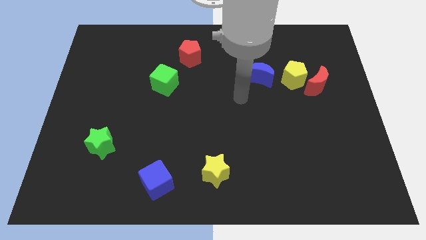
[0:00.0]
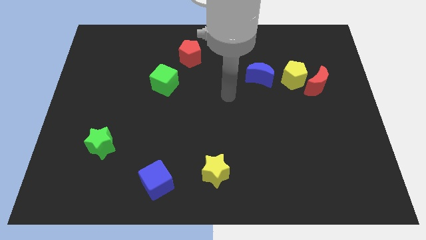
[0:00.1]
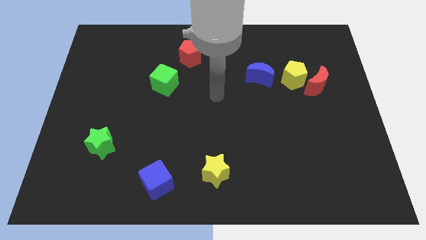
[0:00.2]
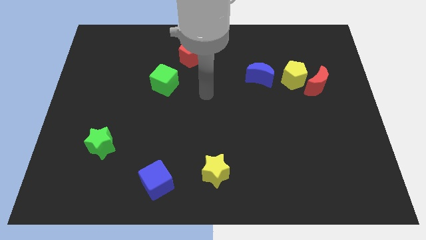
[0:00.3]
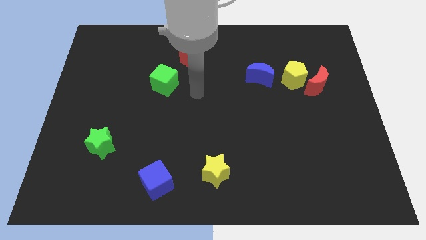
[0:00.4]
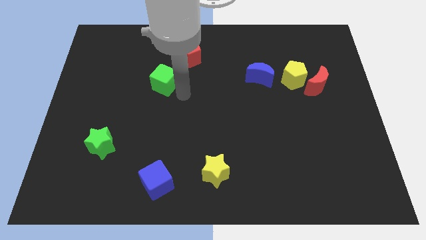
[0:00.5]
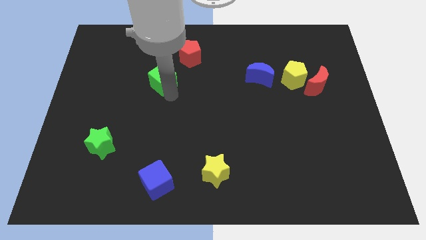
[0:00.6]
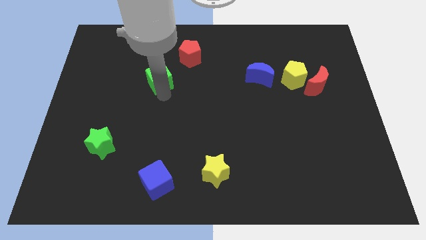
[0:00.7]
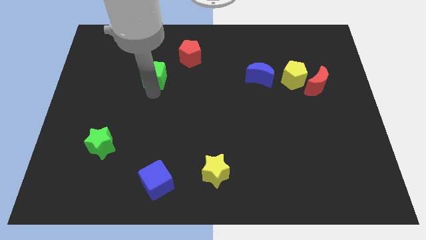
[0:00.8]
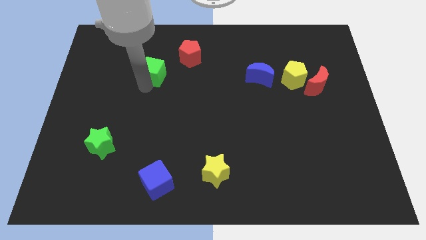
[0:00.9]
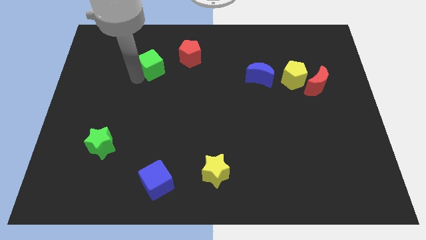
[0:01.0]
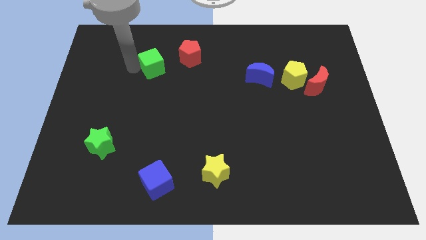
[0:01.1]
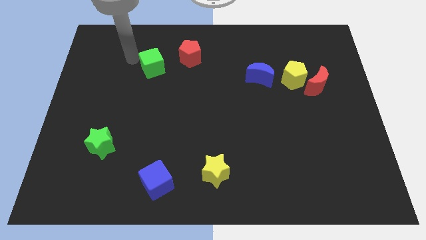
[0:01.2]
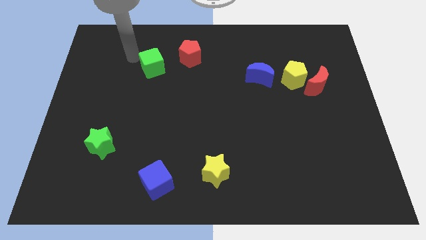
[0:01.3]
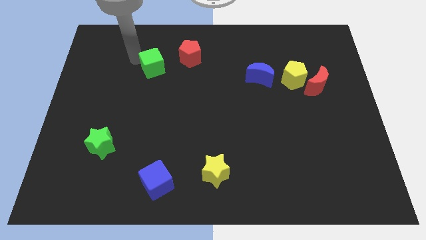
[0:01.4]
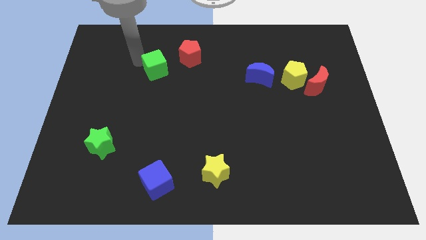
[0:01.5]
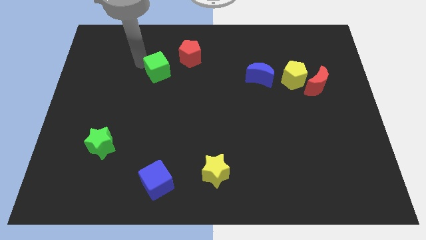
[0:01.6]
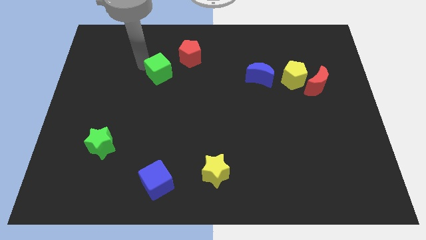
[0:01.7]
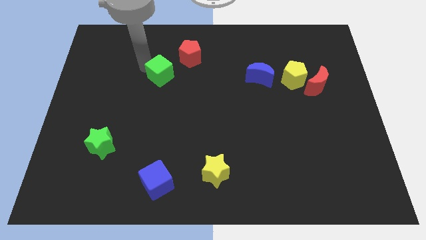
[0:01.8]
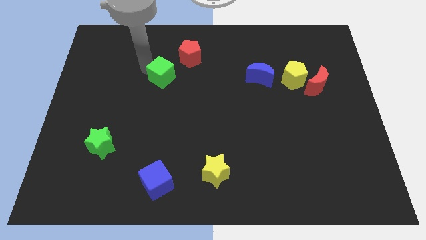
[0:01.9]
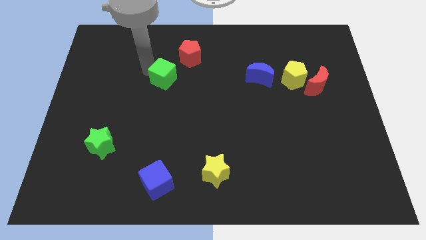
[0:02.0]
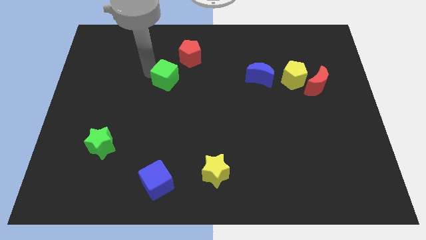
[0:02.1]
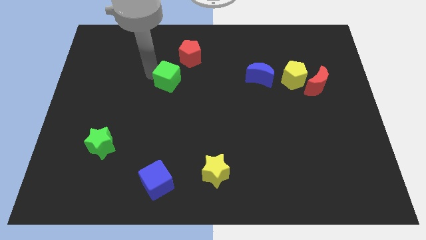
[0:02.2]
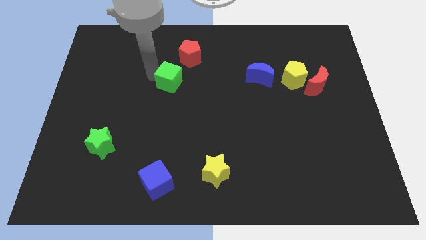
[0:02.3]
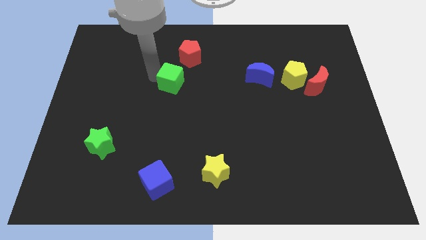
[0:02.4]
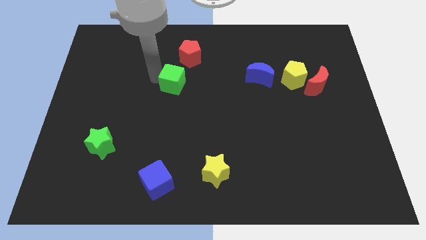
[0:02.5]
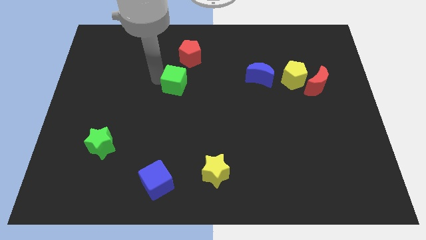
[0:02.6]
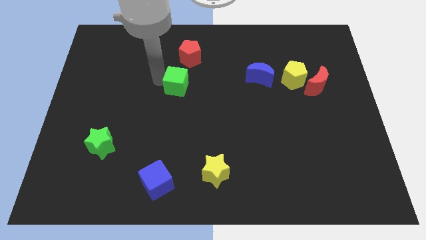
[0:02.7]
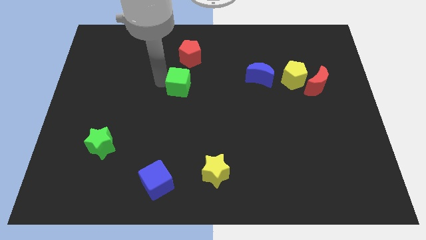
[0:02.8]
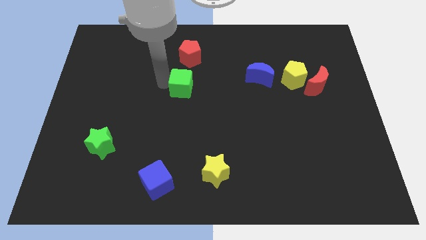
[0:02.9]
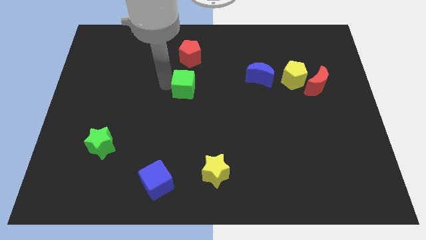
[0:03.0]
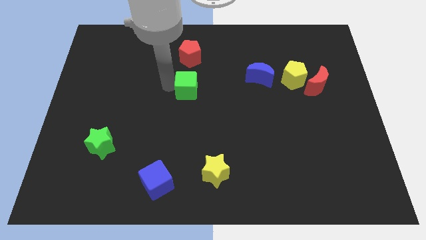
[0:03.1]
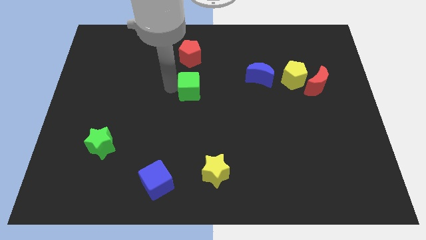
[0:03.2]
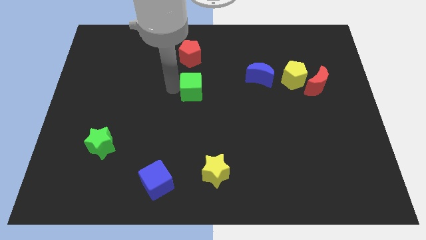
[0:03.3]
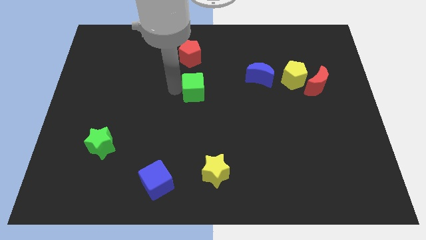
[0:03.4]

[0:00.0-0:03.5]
slightly push the green cube right

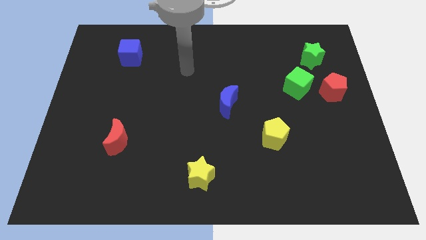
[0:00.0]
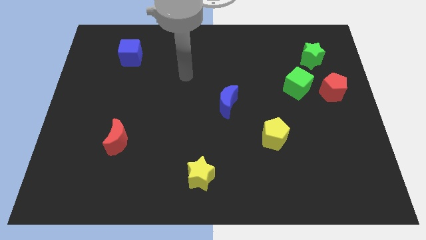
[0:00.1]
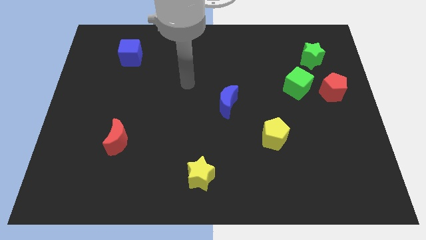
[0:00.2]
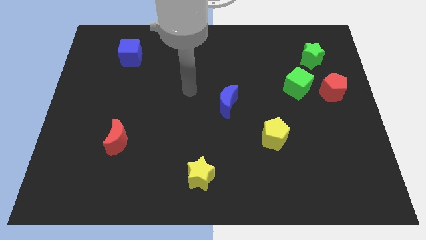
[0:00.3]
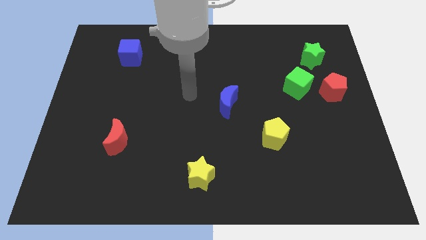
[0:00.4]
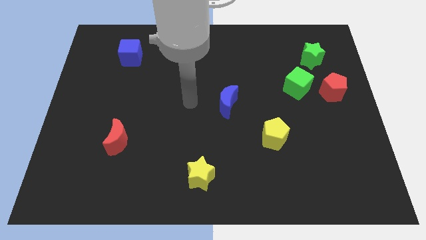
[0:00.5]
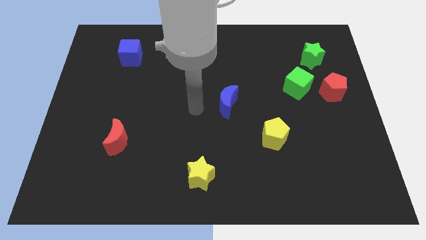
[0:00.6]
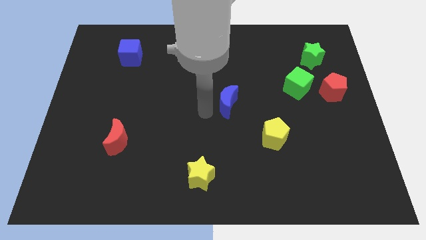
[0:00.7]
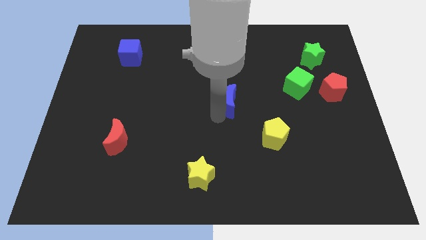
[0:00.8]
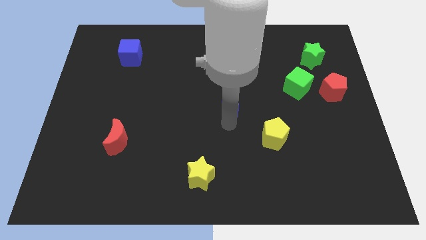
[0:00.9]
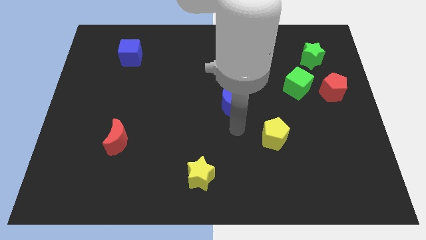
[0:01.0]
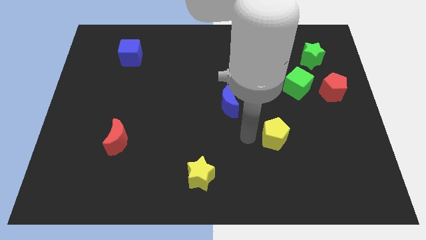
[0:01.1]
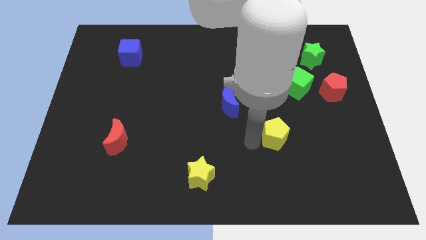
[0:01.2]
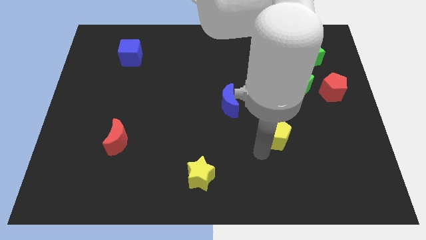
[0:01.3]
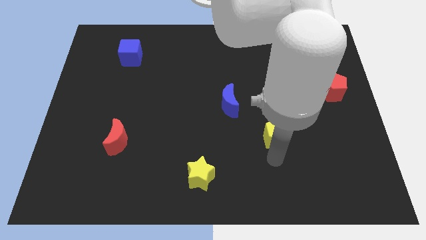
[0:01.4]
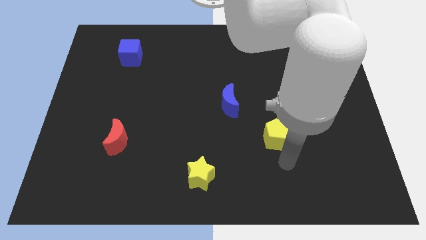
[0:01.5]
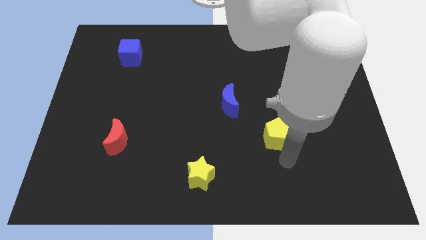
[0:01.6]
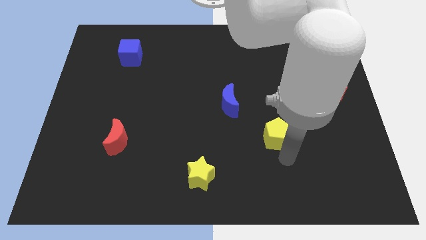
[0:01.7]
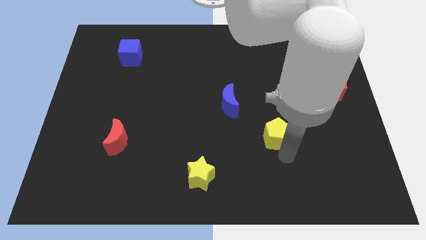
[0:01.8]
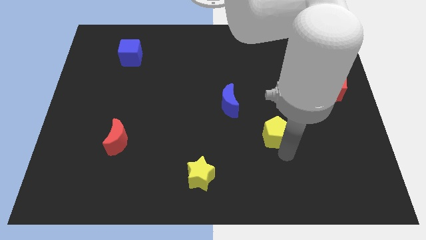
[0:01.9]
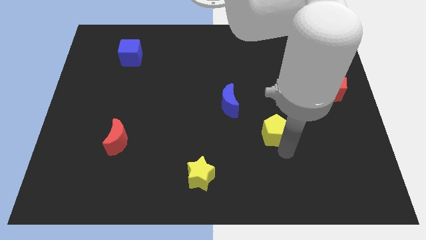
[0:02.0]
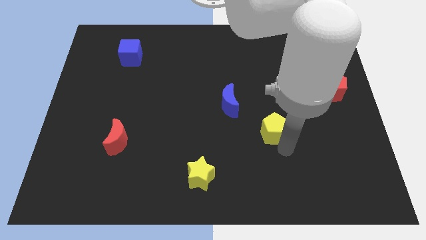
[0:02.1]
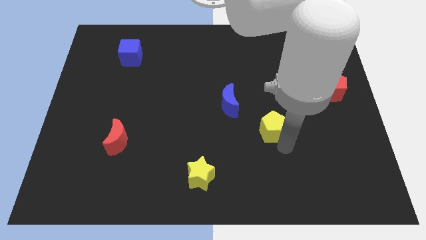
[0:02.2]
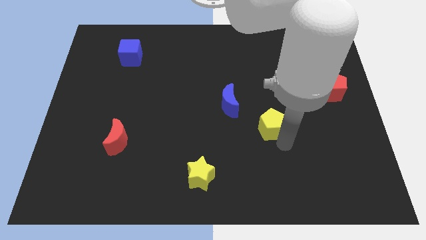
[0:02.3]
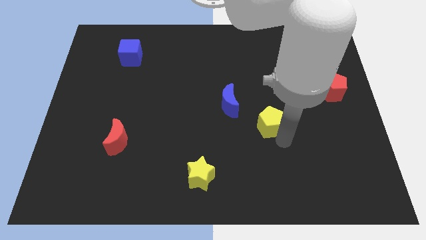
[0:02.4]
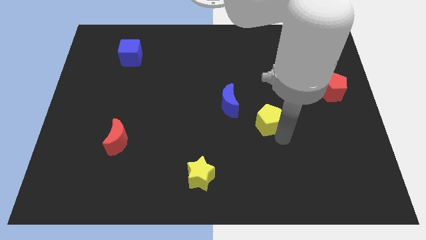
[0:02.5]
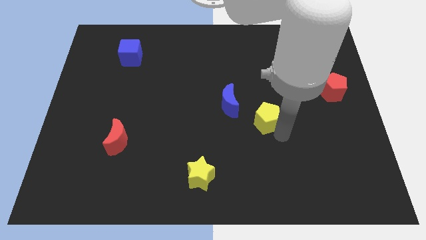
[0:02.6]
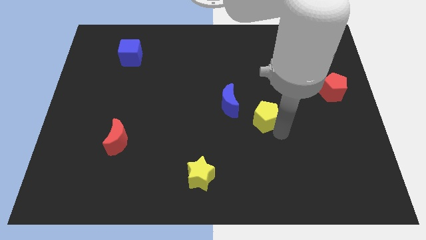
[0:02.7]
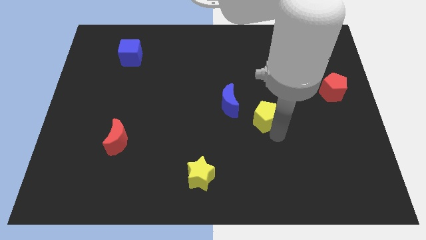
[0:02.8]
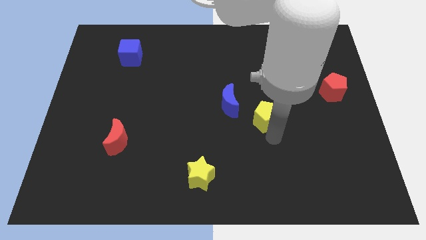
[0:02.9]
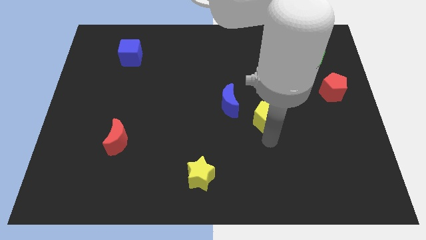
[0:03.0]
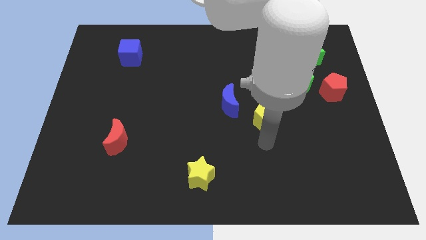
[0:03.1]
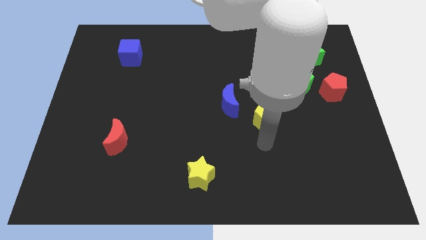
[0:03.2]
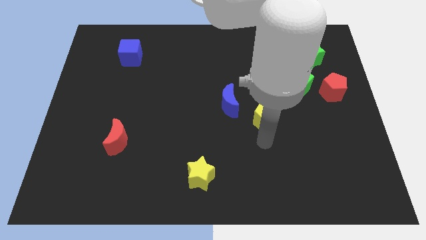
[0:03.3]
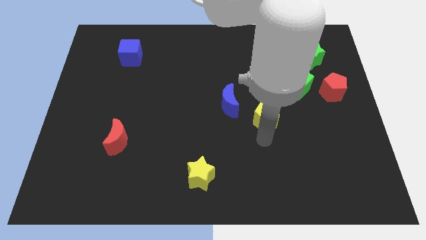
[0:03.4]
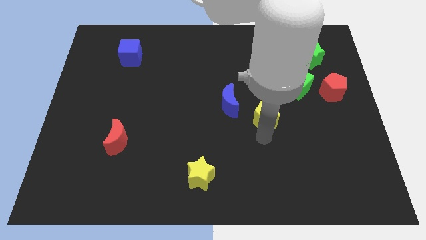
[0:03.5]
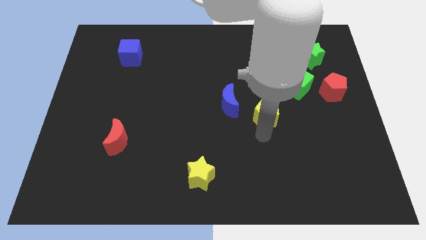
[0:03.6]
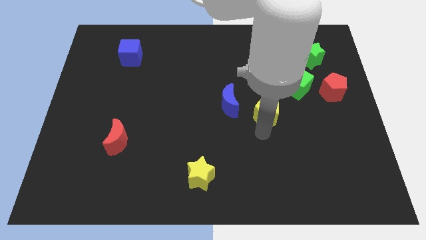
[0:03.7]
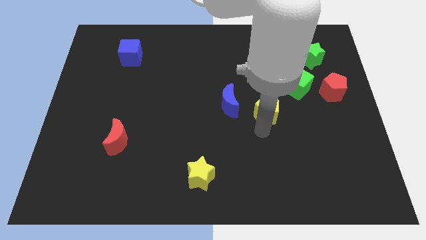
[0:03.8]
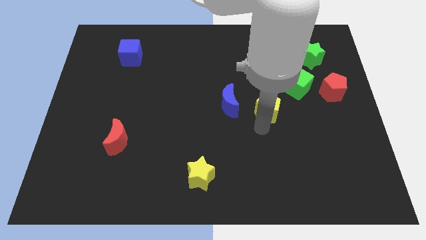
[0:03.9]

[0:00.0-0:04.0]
slightly move the yellow pentagon up

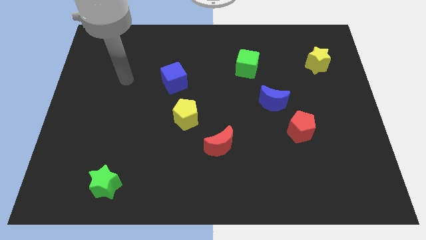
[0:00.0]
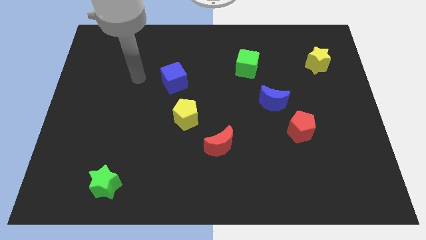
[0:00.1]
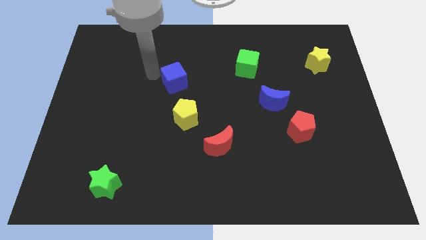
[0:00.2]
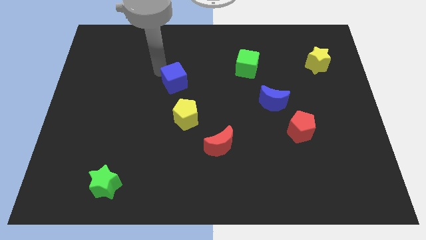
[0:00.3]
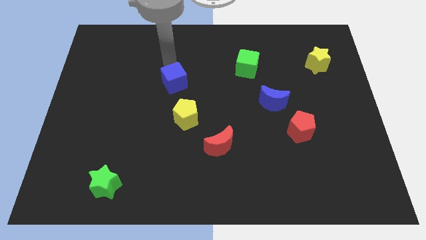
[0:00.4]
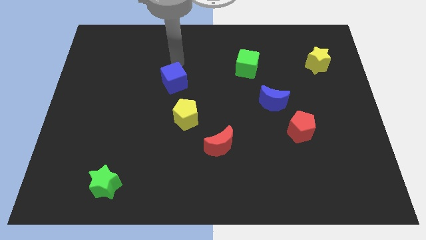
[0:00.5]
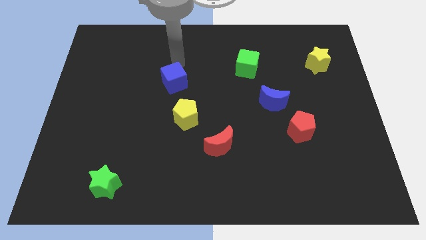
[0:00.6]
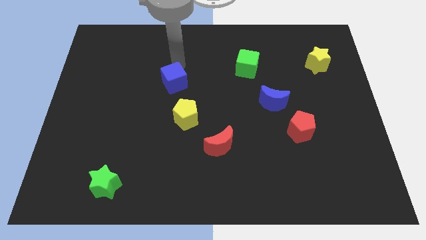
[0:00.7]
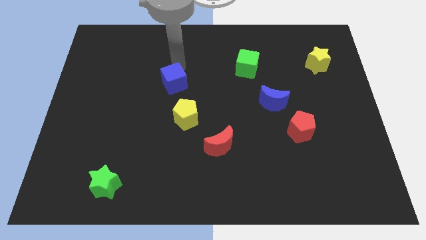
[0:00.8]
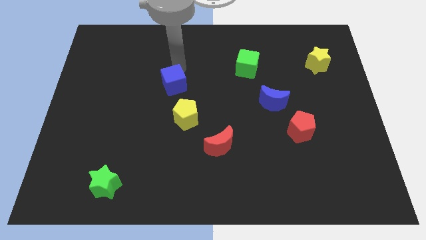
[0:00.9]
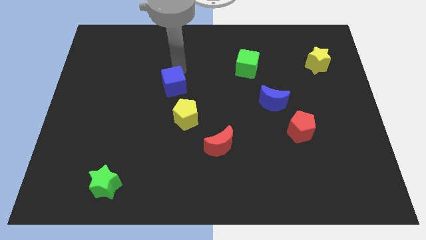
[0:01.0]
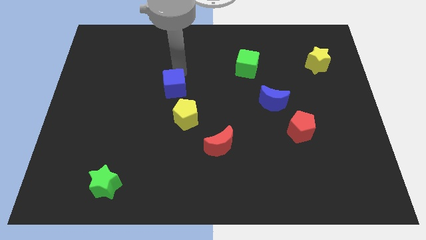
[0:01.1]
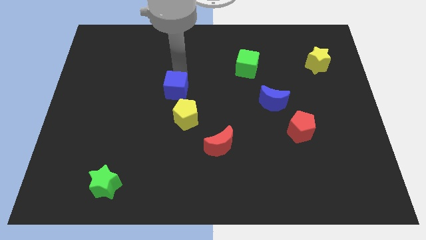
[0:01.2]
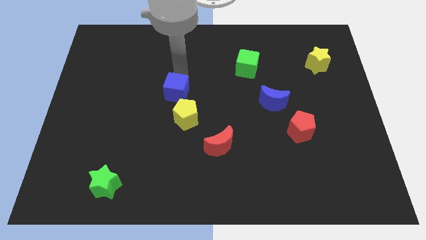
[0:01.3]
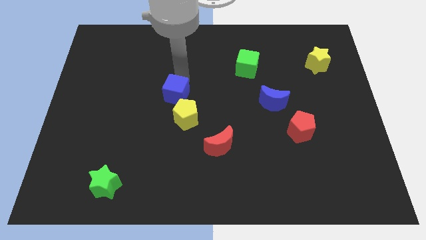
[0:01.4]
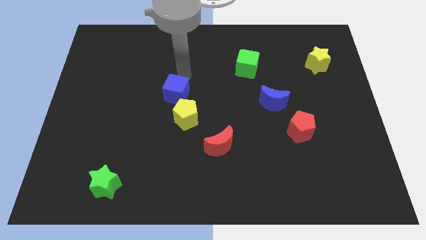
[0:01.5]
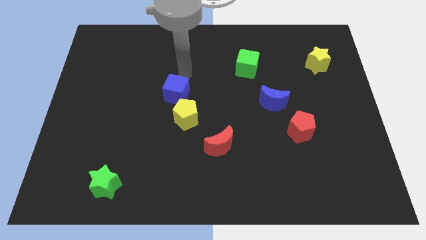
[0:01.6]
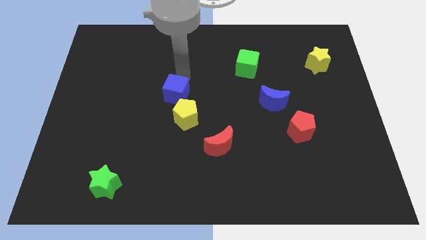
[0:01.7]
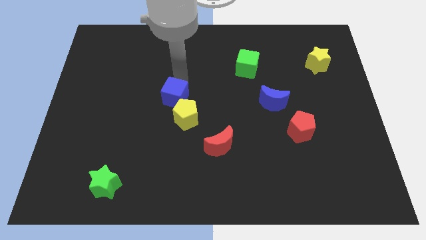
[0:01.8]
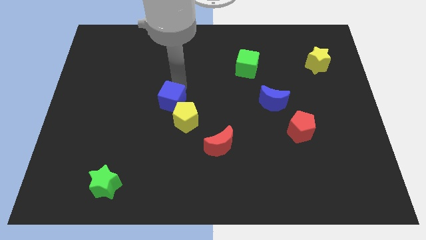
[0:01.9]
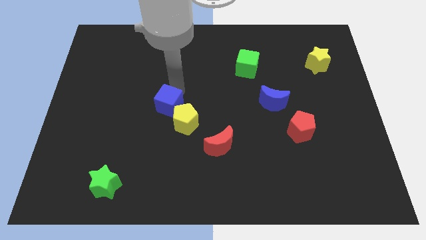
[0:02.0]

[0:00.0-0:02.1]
push the blue cube down a little
